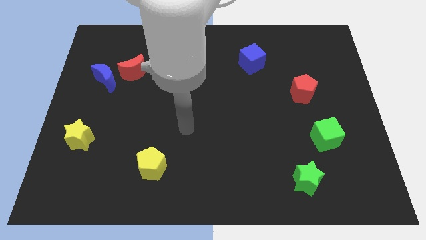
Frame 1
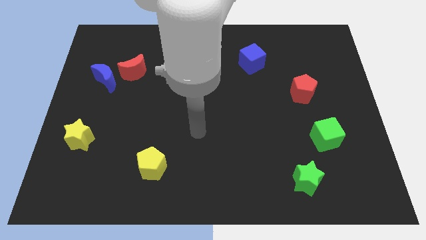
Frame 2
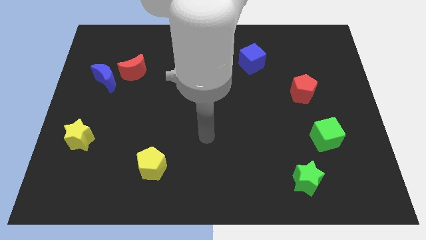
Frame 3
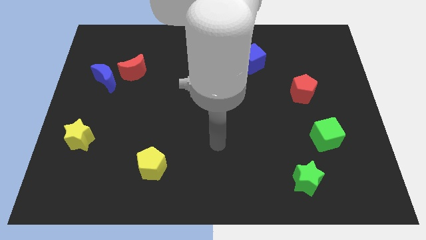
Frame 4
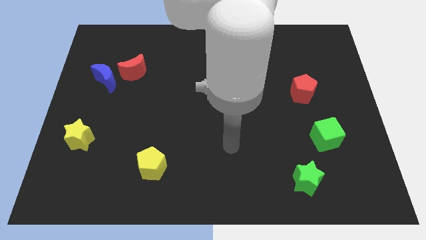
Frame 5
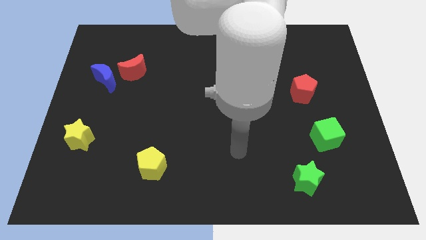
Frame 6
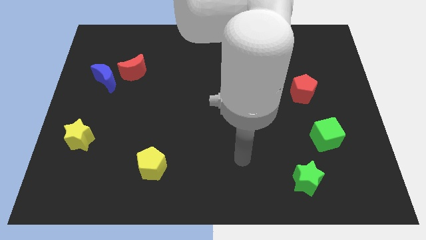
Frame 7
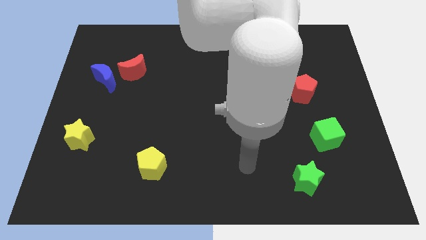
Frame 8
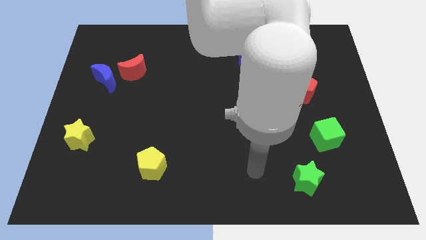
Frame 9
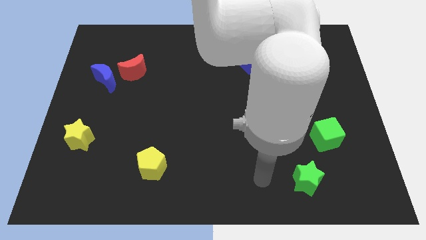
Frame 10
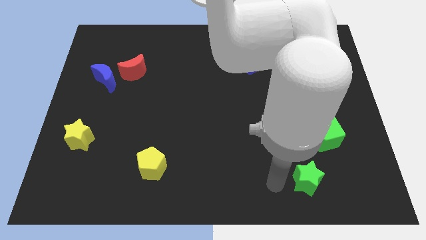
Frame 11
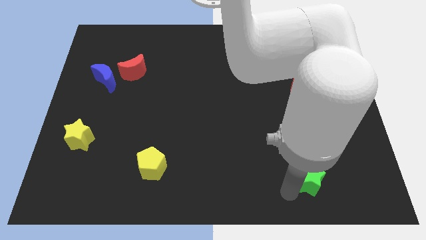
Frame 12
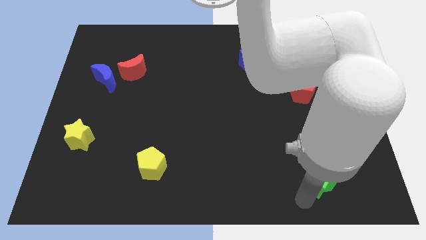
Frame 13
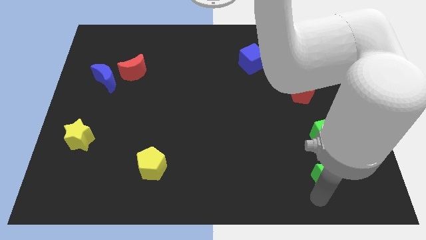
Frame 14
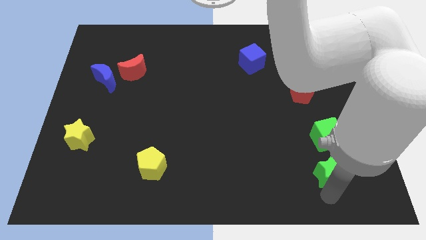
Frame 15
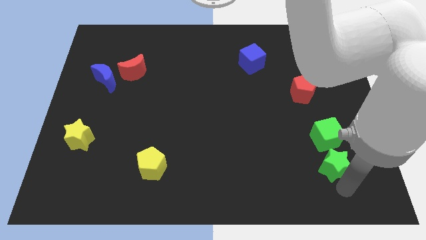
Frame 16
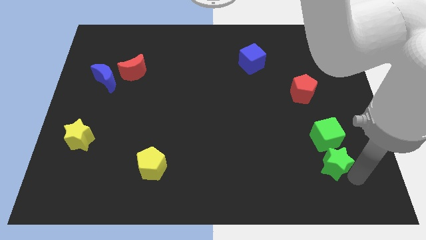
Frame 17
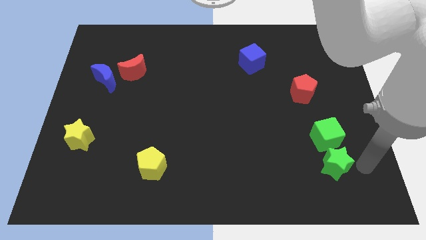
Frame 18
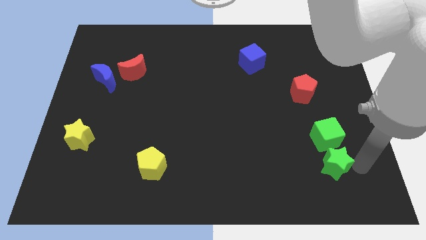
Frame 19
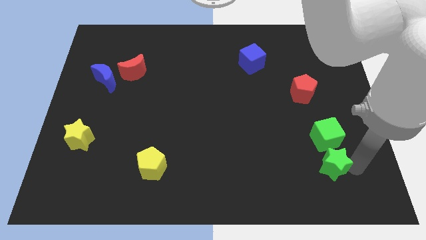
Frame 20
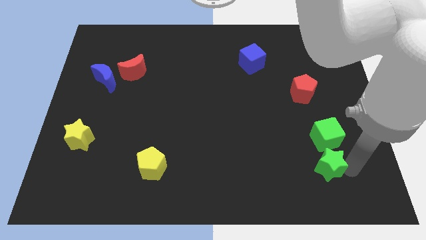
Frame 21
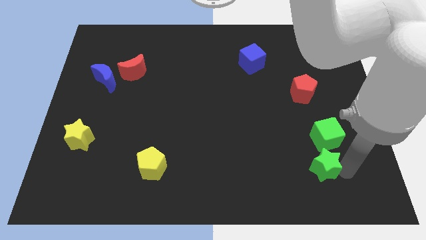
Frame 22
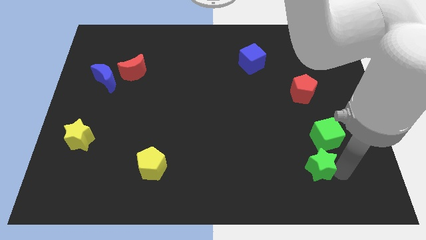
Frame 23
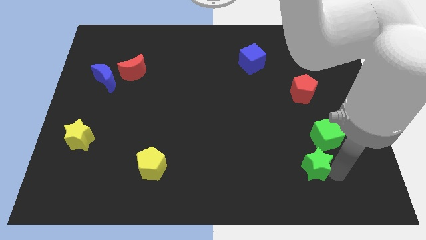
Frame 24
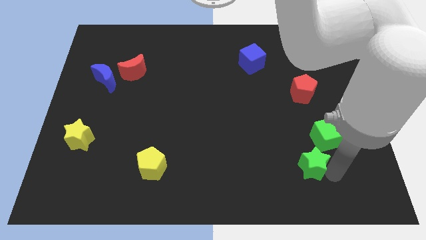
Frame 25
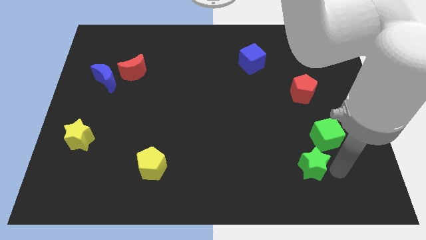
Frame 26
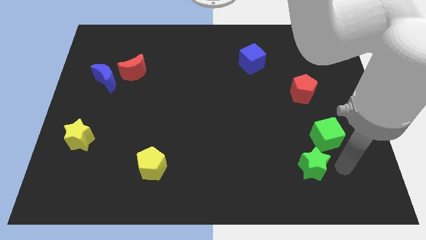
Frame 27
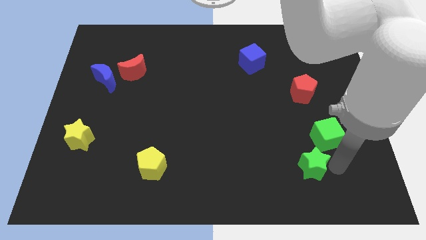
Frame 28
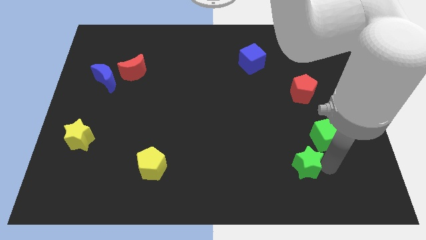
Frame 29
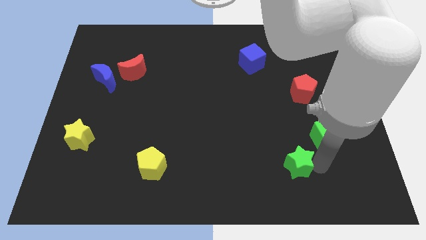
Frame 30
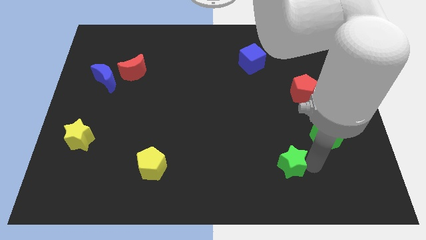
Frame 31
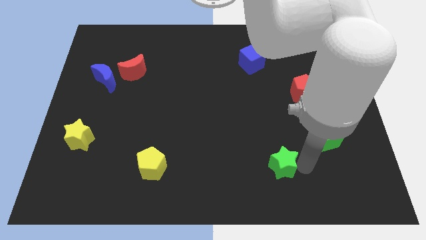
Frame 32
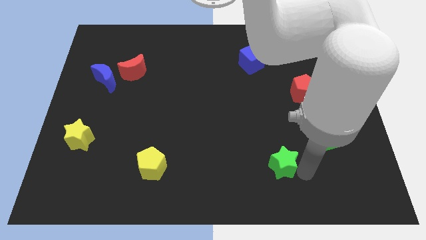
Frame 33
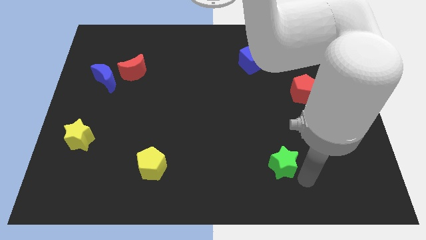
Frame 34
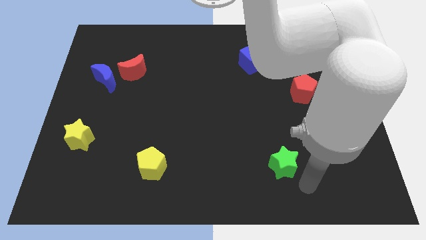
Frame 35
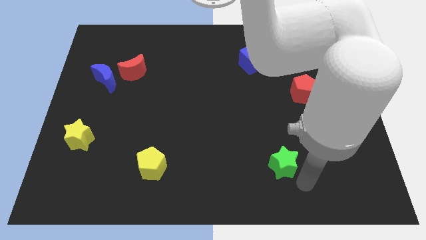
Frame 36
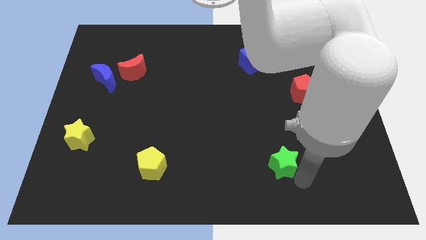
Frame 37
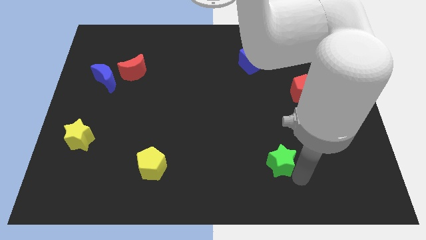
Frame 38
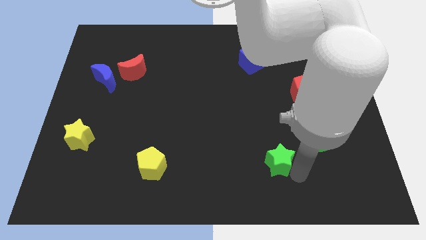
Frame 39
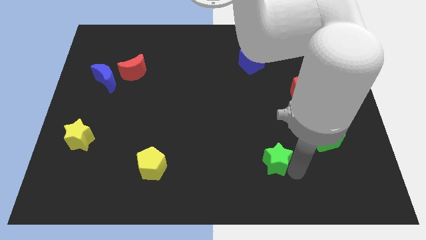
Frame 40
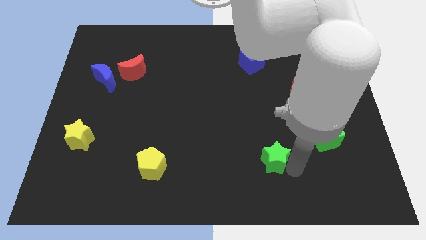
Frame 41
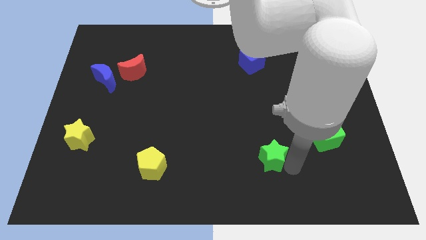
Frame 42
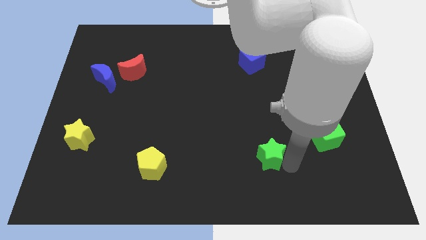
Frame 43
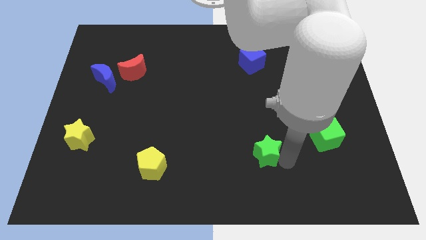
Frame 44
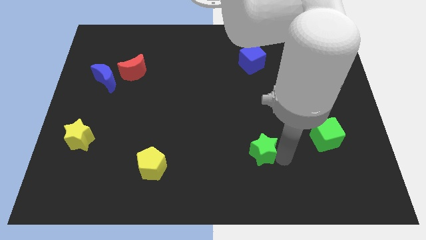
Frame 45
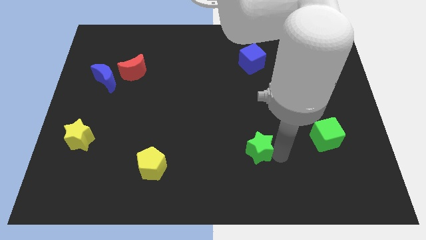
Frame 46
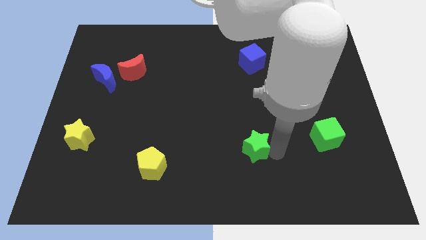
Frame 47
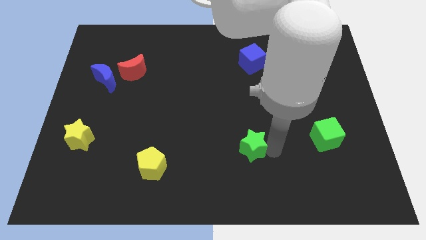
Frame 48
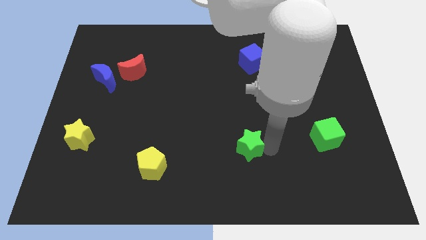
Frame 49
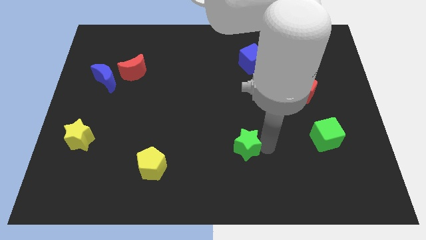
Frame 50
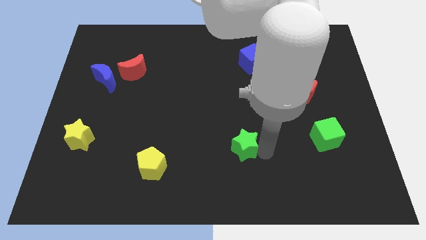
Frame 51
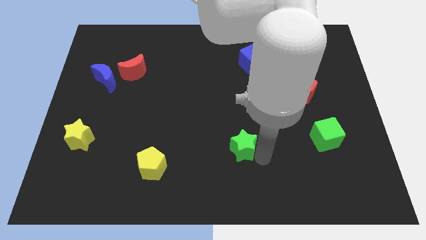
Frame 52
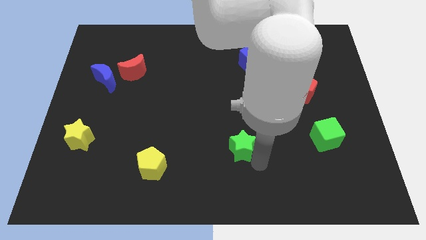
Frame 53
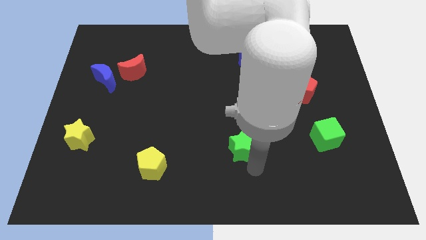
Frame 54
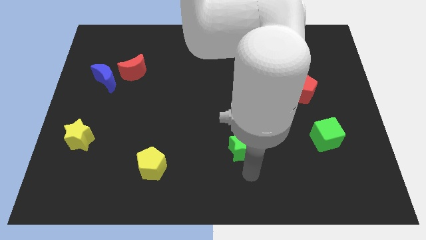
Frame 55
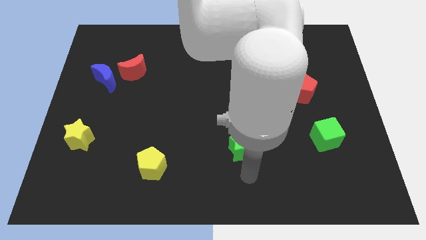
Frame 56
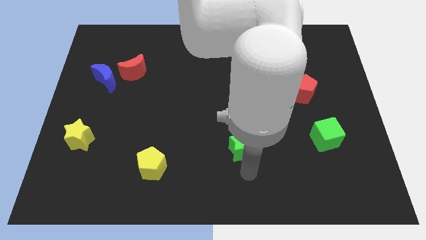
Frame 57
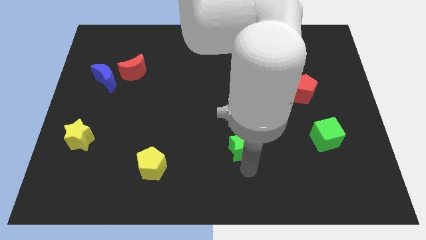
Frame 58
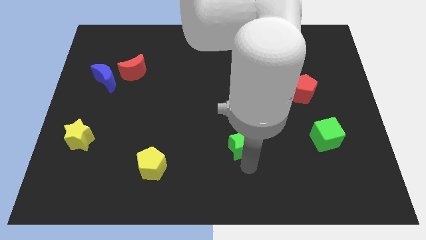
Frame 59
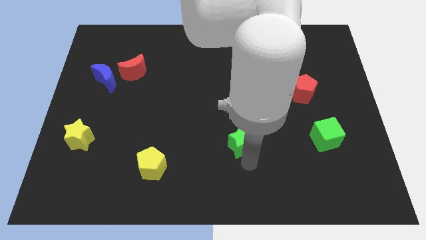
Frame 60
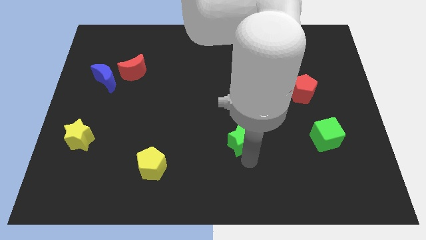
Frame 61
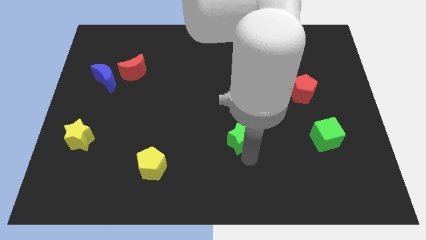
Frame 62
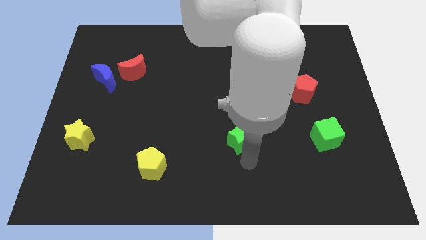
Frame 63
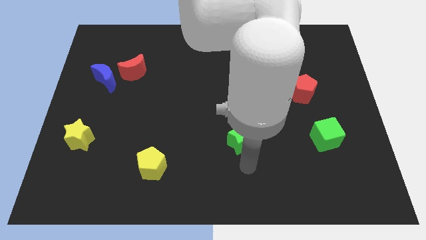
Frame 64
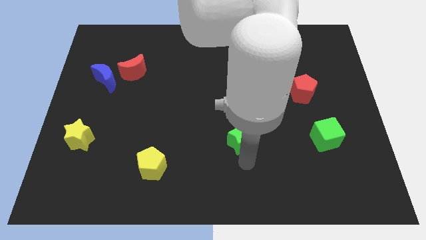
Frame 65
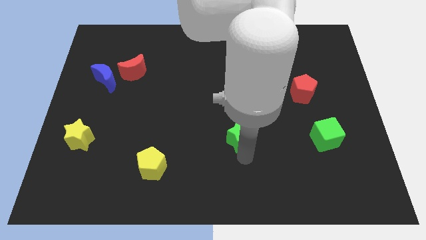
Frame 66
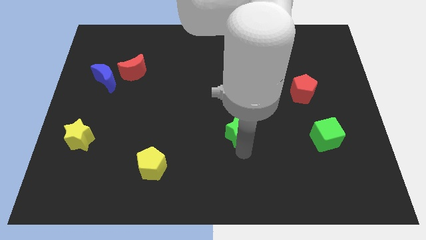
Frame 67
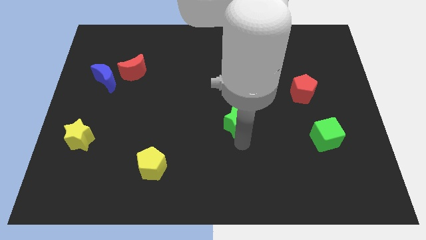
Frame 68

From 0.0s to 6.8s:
slide the green star up and to the left

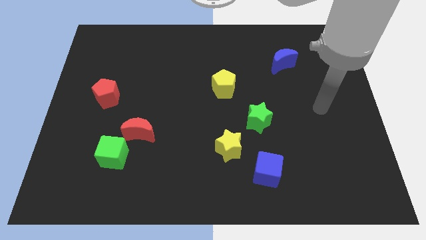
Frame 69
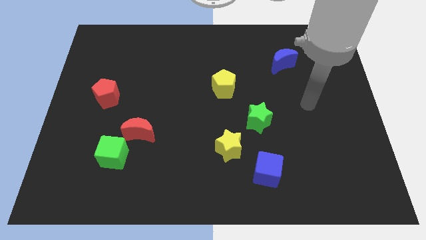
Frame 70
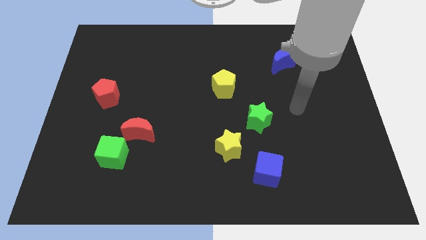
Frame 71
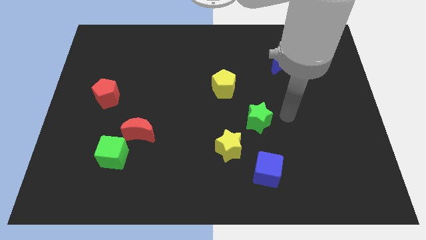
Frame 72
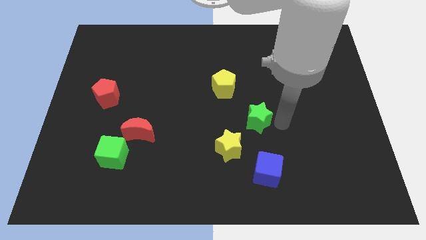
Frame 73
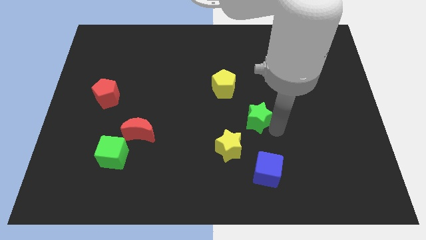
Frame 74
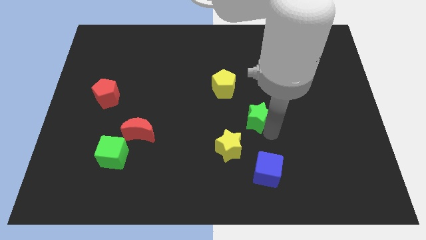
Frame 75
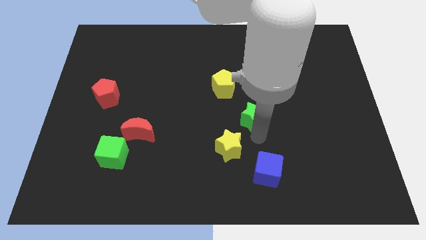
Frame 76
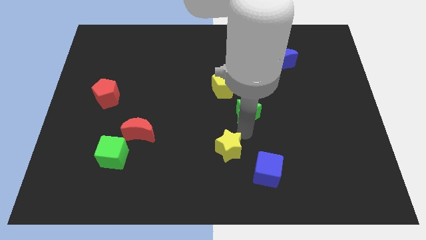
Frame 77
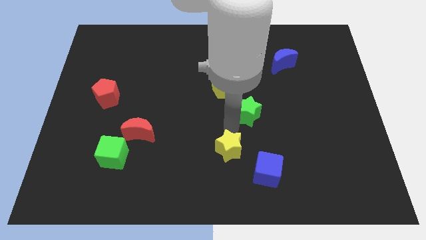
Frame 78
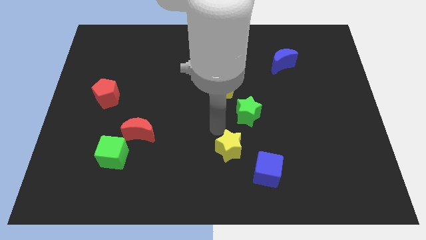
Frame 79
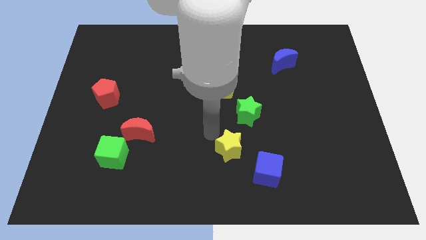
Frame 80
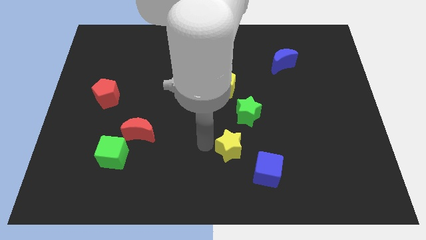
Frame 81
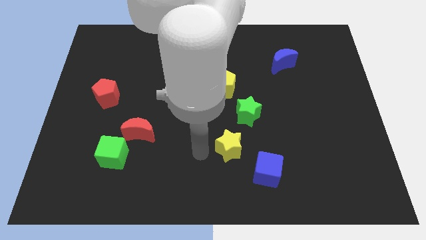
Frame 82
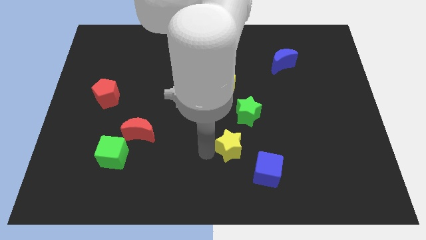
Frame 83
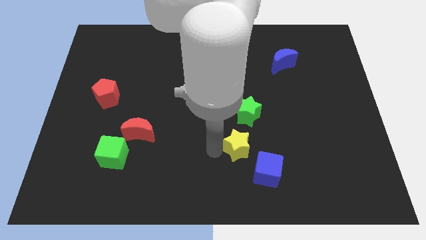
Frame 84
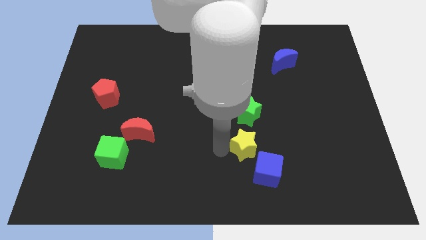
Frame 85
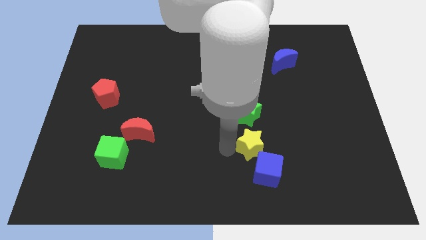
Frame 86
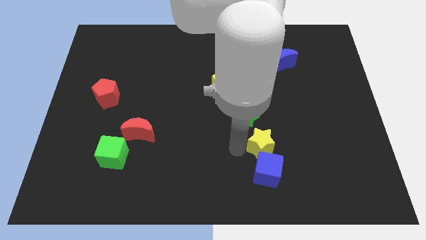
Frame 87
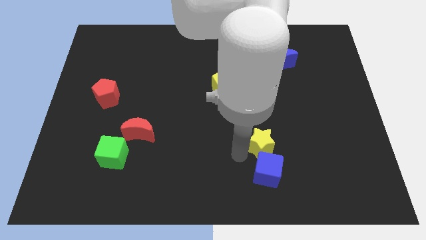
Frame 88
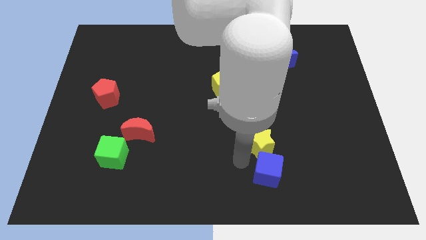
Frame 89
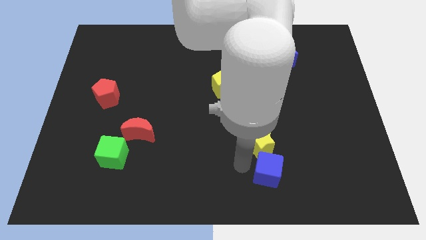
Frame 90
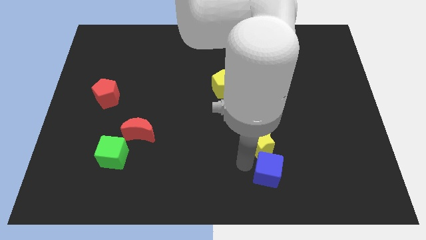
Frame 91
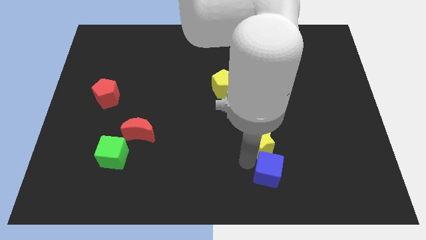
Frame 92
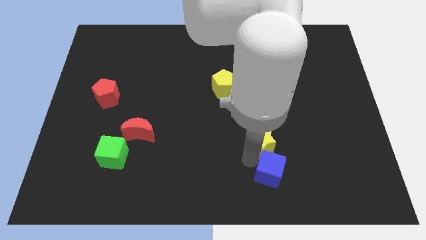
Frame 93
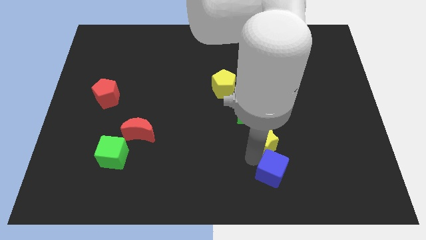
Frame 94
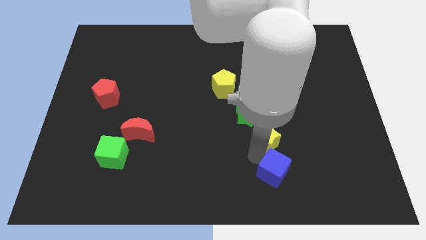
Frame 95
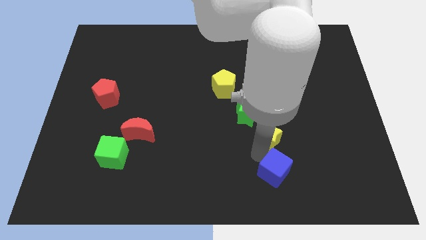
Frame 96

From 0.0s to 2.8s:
slide the yellow star upwards and then to the right slightly
